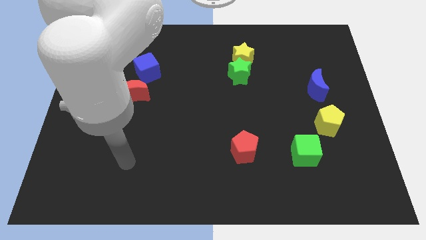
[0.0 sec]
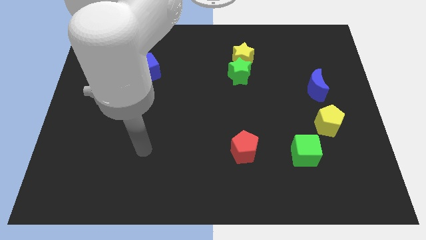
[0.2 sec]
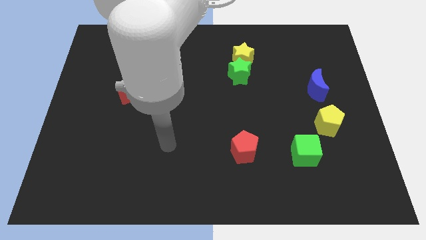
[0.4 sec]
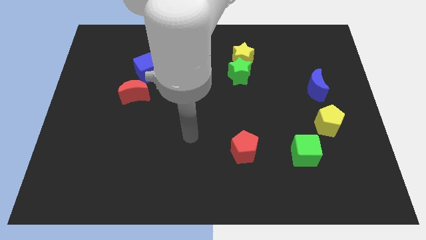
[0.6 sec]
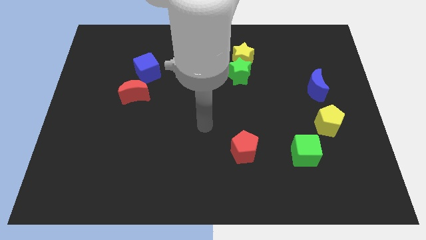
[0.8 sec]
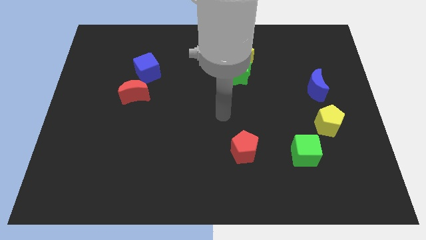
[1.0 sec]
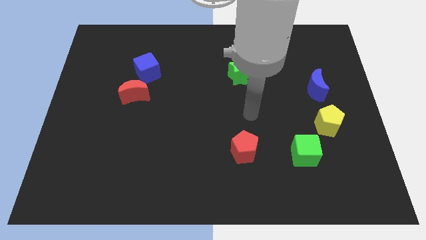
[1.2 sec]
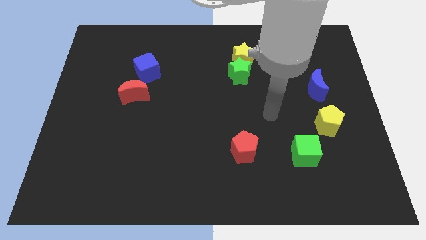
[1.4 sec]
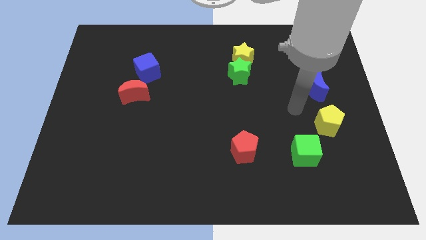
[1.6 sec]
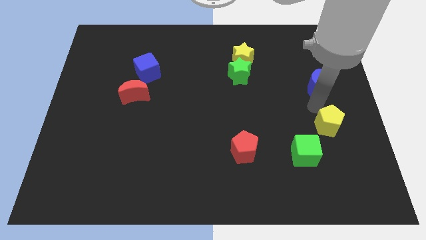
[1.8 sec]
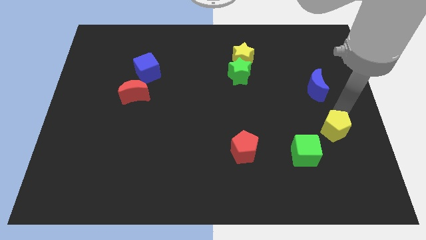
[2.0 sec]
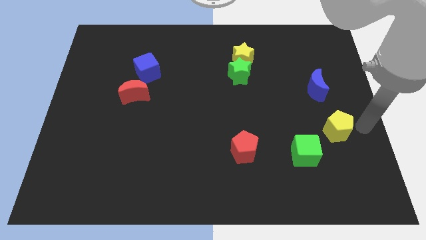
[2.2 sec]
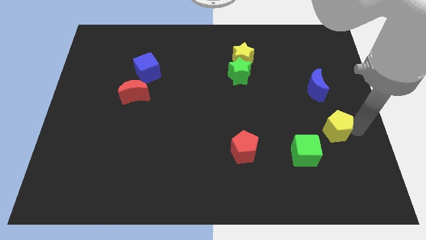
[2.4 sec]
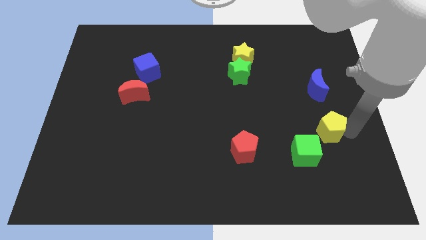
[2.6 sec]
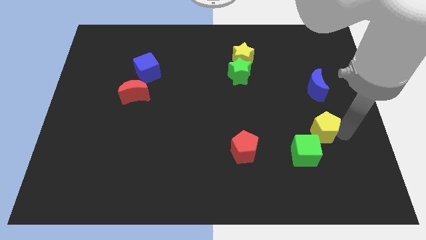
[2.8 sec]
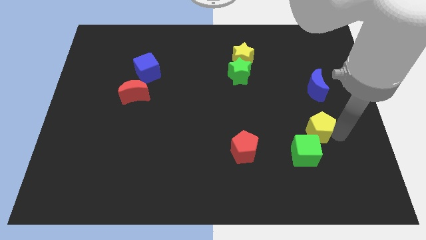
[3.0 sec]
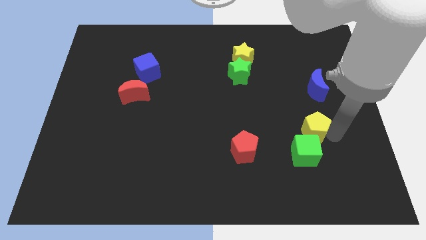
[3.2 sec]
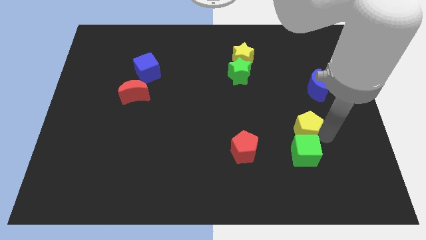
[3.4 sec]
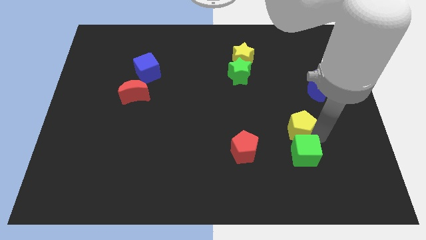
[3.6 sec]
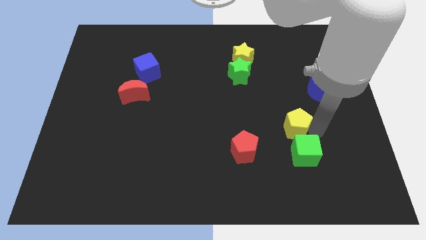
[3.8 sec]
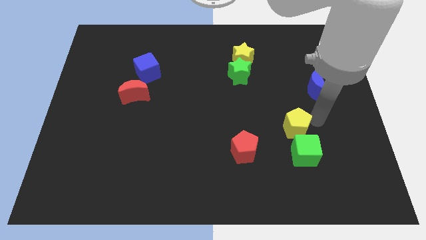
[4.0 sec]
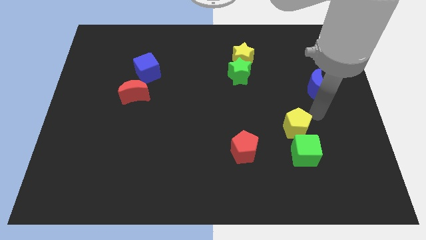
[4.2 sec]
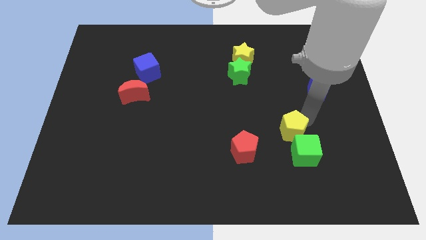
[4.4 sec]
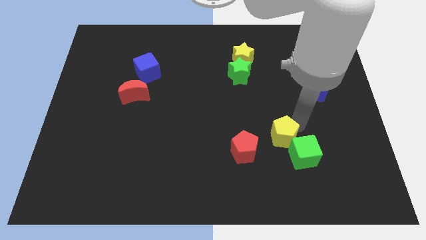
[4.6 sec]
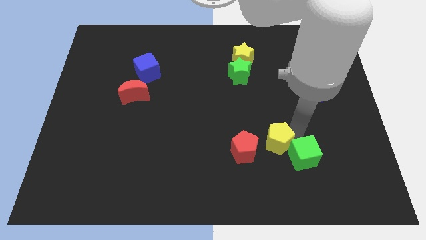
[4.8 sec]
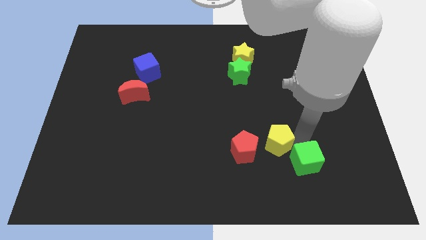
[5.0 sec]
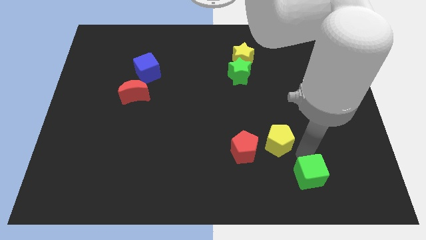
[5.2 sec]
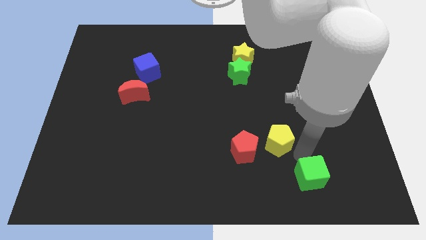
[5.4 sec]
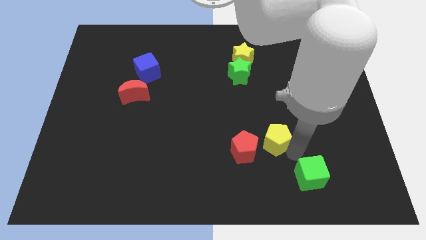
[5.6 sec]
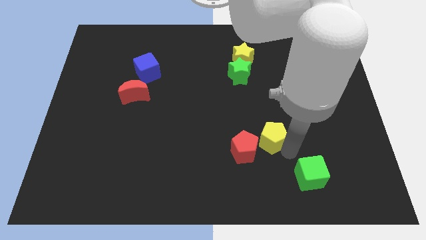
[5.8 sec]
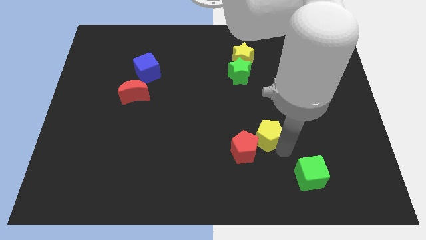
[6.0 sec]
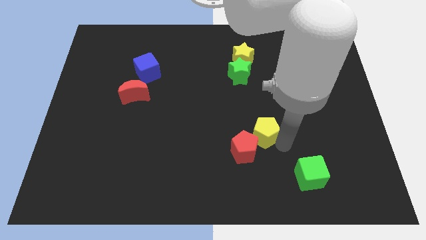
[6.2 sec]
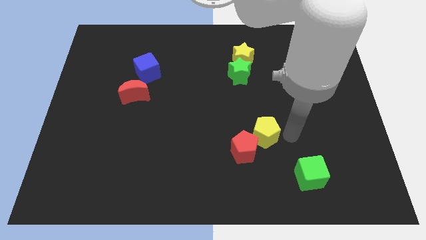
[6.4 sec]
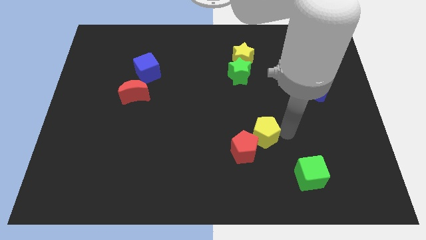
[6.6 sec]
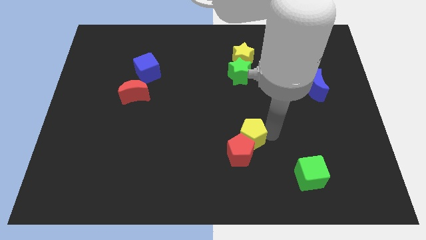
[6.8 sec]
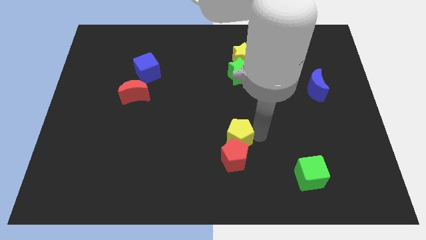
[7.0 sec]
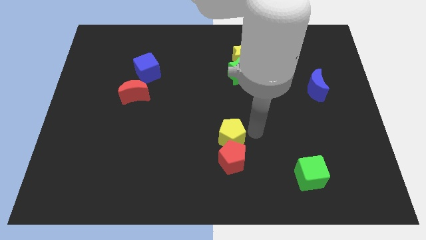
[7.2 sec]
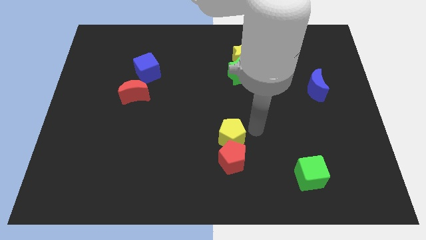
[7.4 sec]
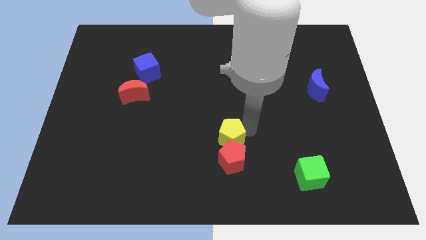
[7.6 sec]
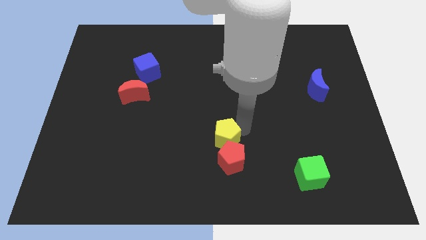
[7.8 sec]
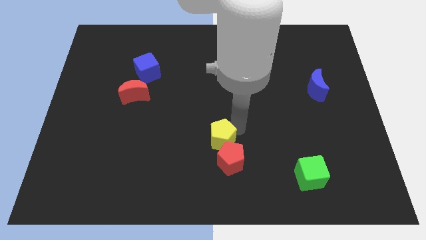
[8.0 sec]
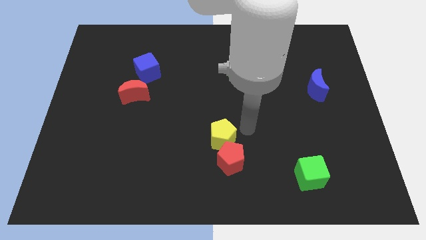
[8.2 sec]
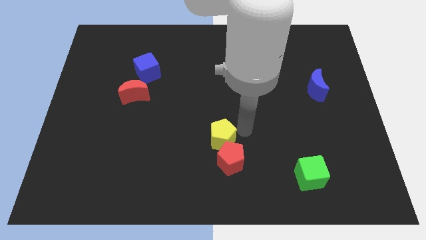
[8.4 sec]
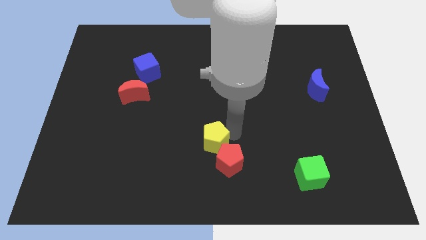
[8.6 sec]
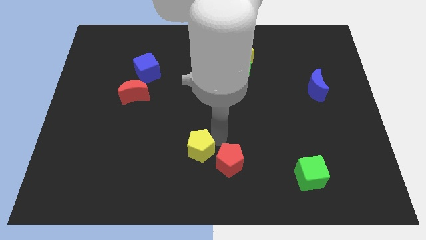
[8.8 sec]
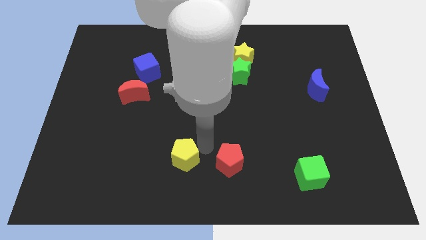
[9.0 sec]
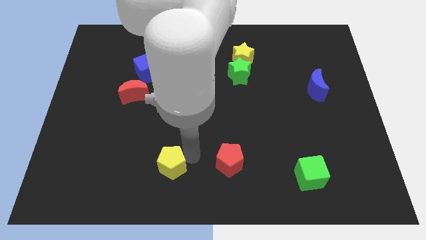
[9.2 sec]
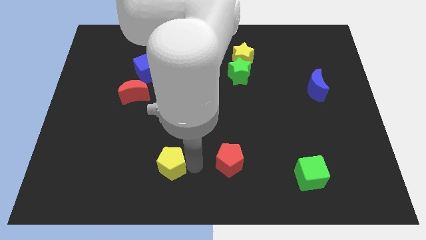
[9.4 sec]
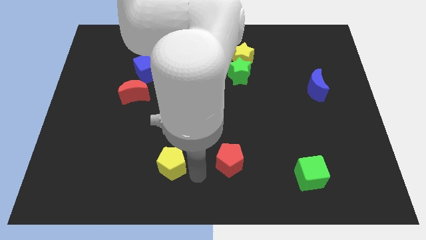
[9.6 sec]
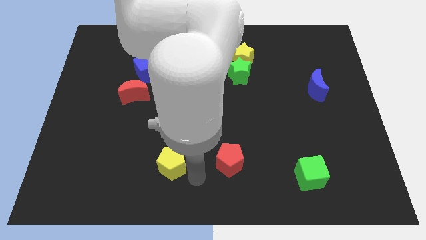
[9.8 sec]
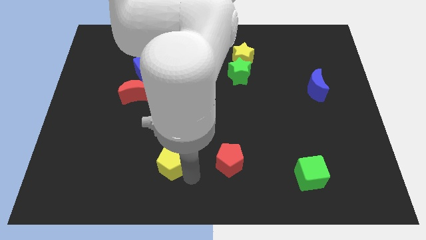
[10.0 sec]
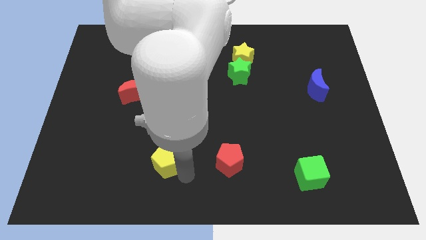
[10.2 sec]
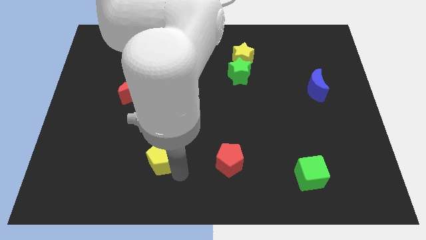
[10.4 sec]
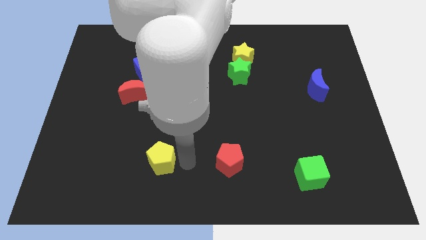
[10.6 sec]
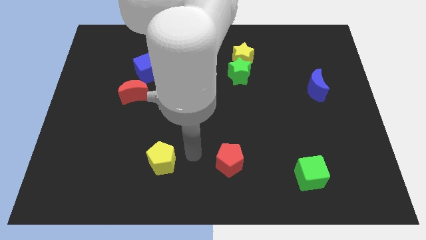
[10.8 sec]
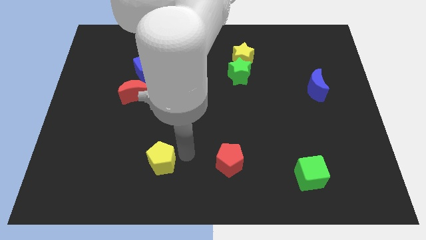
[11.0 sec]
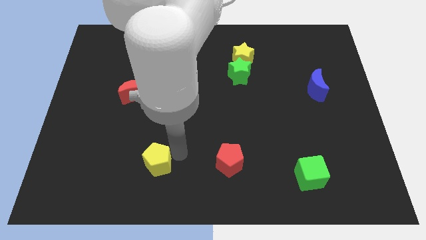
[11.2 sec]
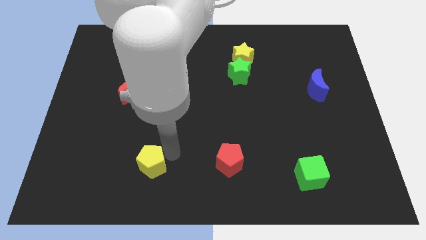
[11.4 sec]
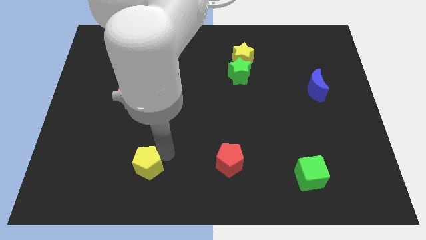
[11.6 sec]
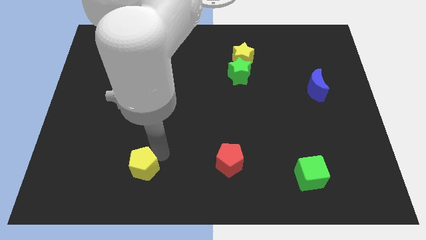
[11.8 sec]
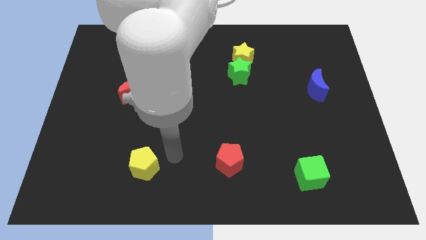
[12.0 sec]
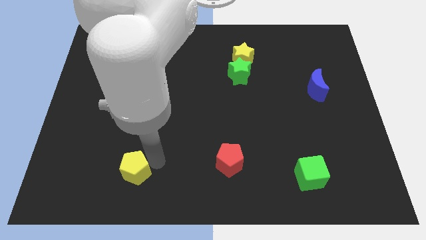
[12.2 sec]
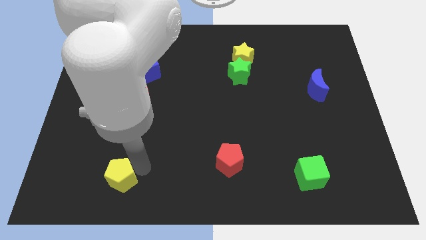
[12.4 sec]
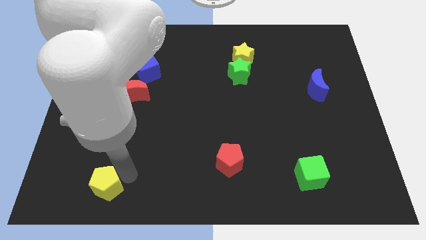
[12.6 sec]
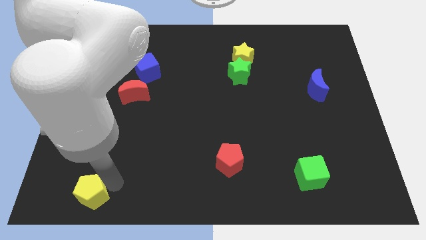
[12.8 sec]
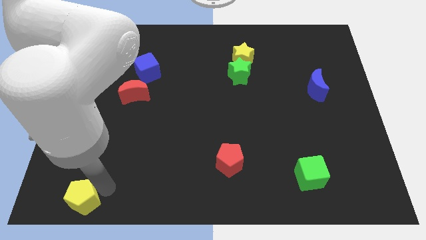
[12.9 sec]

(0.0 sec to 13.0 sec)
push the yellow pentagon to the lower left corner

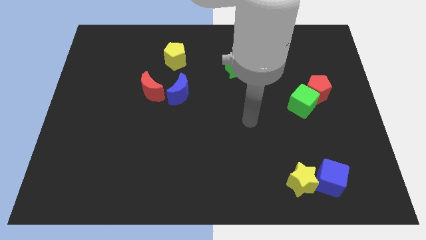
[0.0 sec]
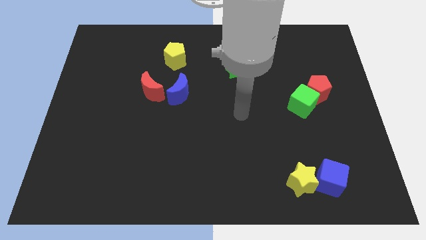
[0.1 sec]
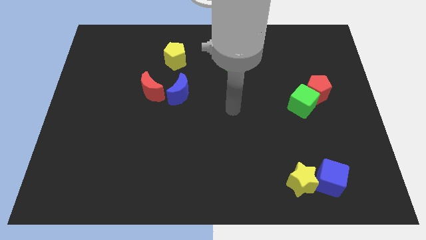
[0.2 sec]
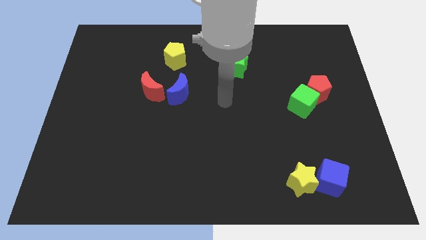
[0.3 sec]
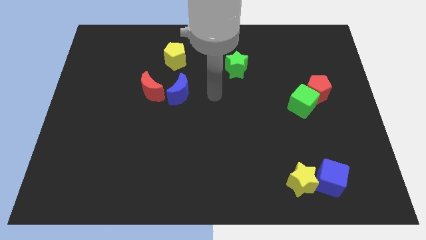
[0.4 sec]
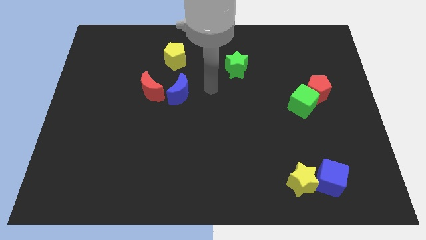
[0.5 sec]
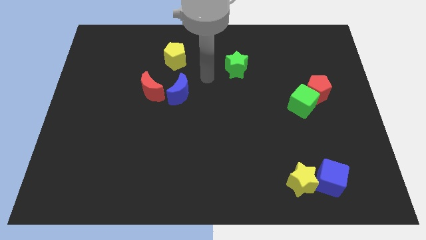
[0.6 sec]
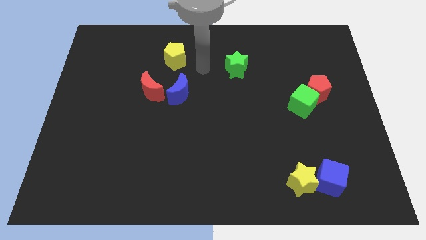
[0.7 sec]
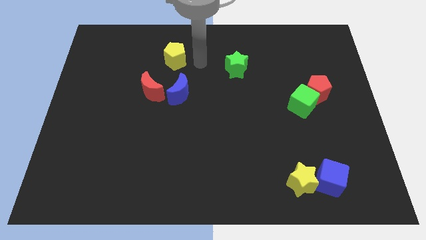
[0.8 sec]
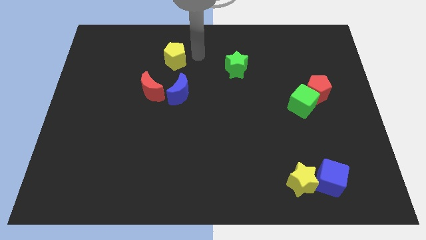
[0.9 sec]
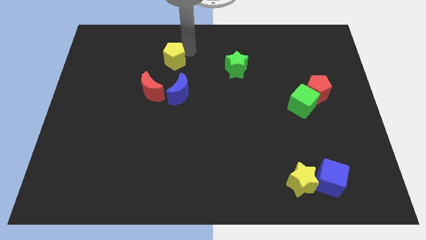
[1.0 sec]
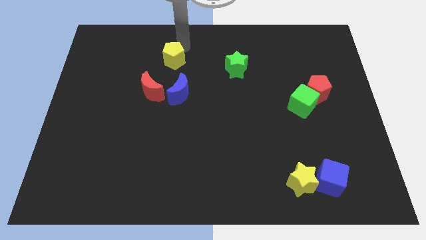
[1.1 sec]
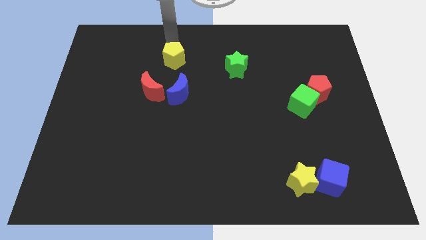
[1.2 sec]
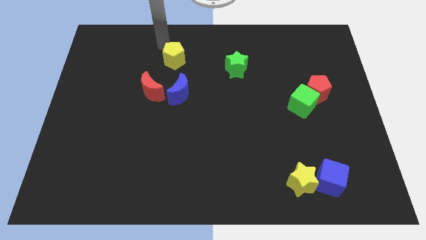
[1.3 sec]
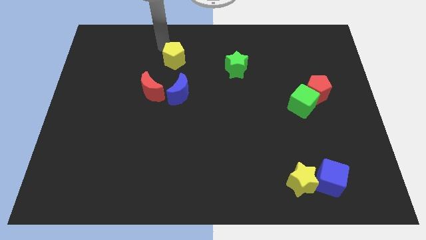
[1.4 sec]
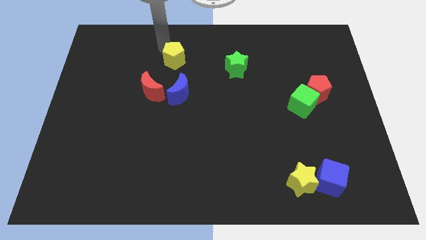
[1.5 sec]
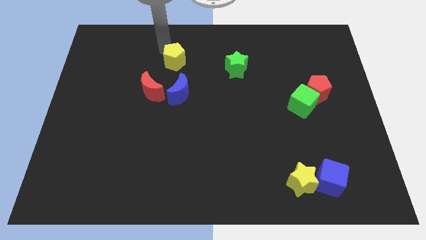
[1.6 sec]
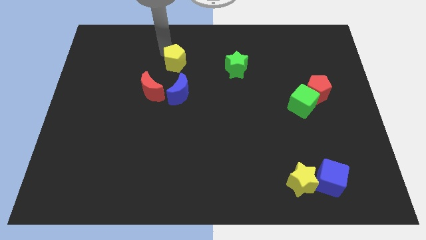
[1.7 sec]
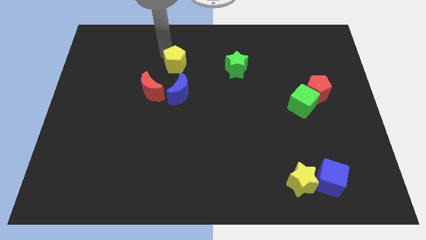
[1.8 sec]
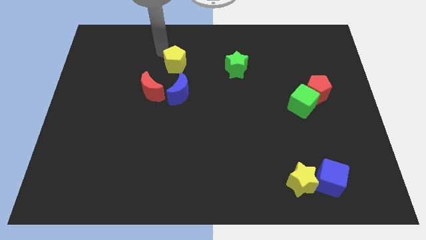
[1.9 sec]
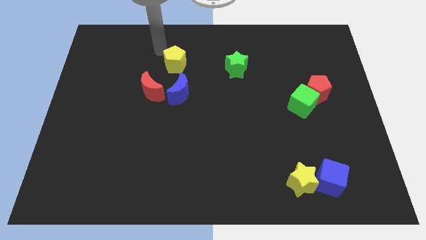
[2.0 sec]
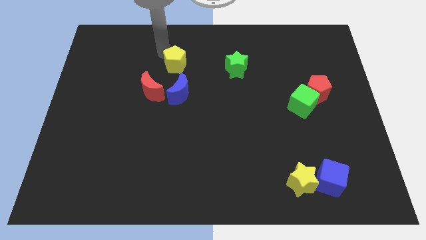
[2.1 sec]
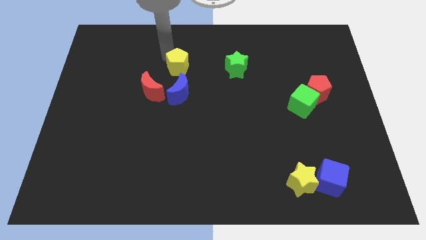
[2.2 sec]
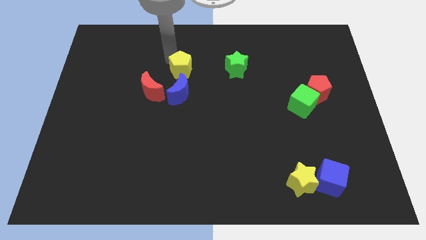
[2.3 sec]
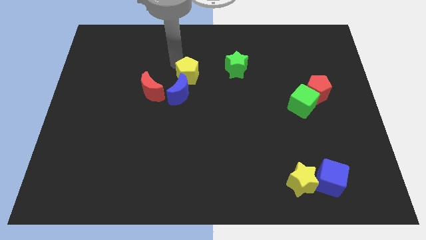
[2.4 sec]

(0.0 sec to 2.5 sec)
put the yellow pentagon to the middle
